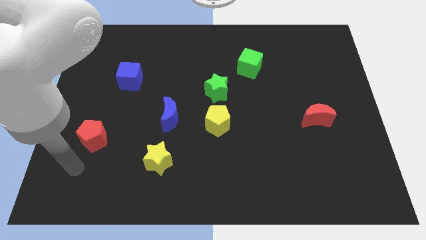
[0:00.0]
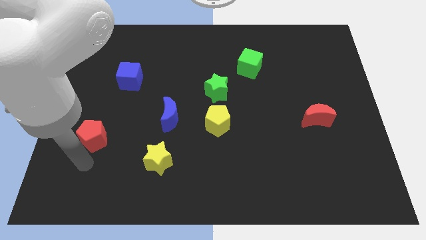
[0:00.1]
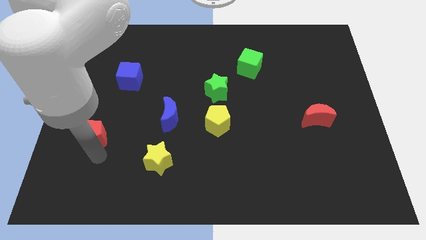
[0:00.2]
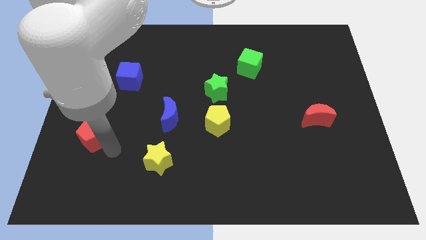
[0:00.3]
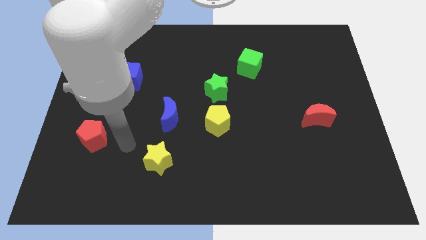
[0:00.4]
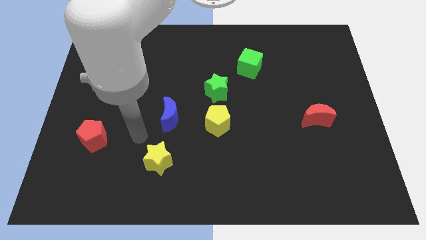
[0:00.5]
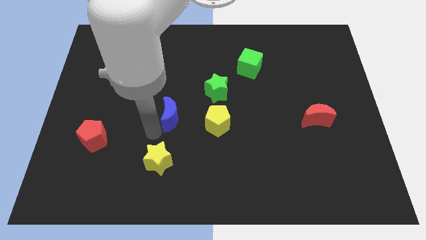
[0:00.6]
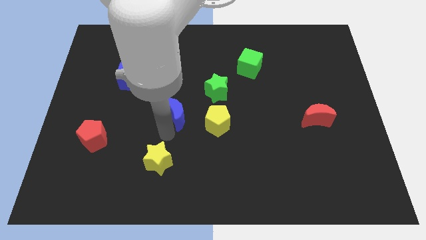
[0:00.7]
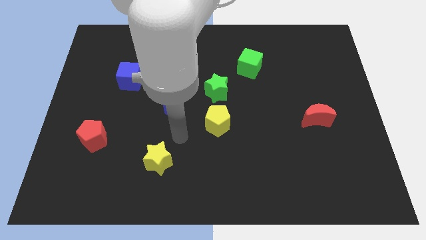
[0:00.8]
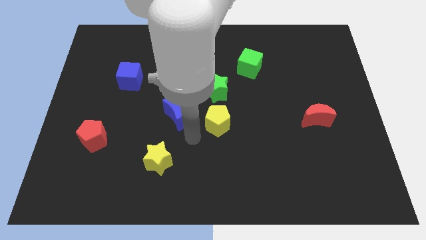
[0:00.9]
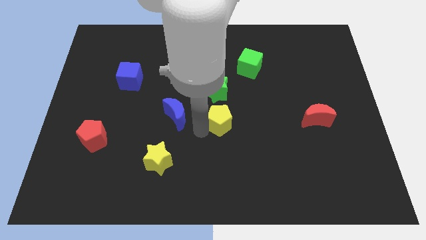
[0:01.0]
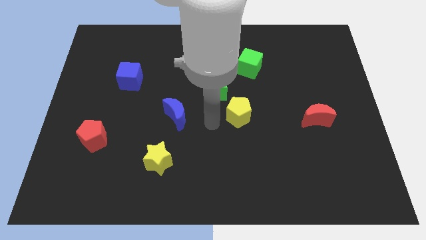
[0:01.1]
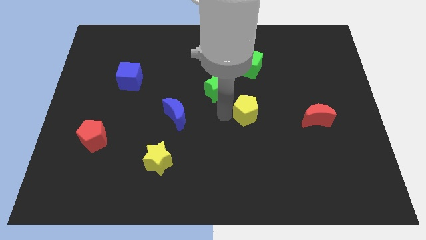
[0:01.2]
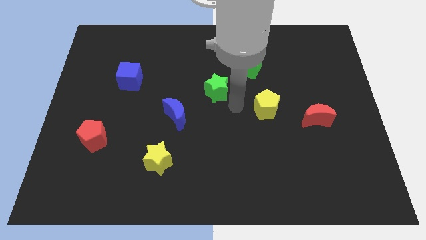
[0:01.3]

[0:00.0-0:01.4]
move the green star away from the yellow pentagon

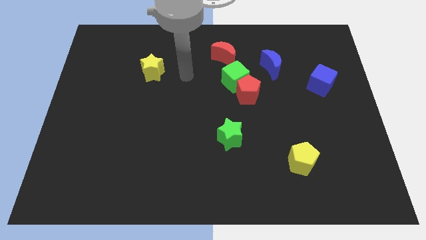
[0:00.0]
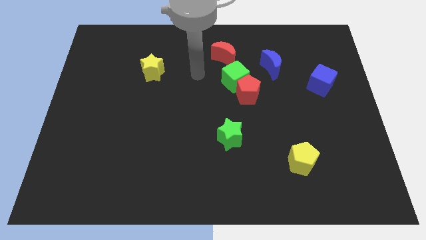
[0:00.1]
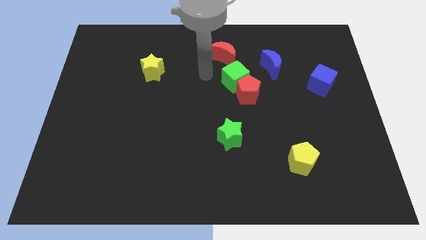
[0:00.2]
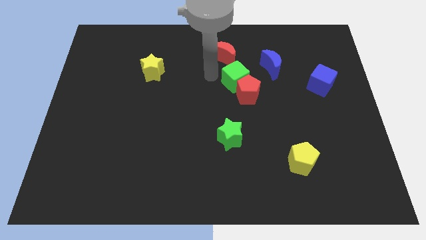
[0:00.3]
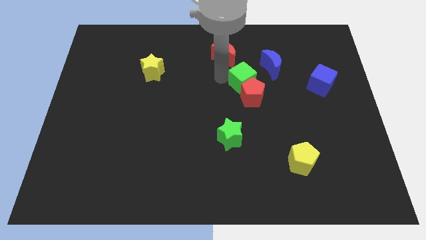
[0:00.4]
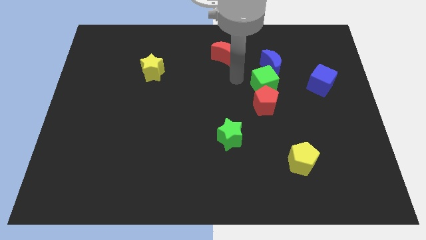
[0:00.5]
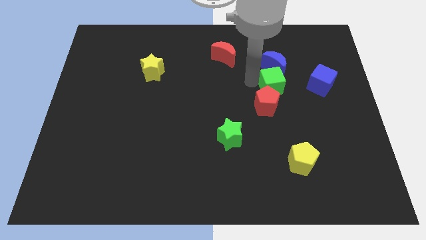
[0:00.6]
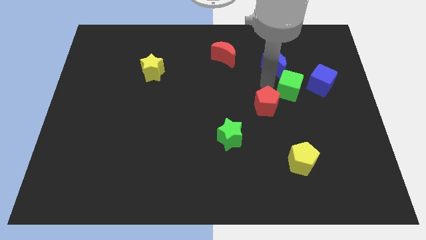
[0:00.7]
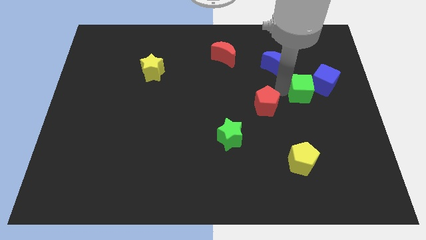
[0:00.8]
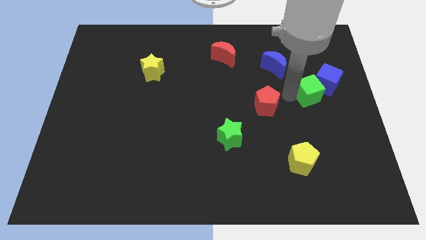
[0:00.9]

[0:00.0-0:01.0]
move the red pentagon away from the green cube

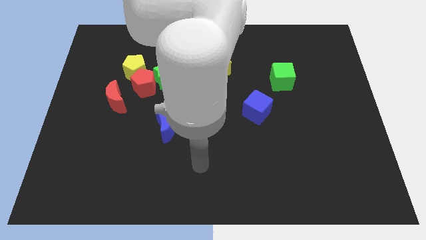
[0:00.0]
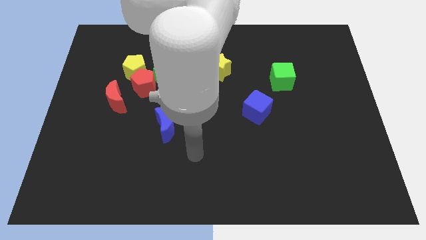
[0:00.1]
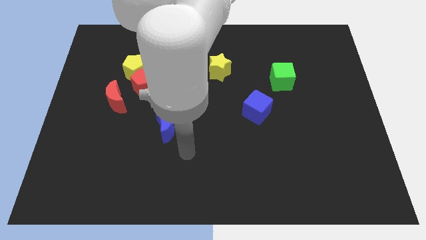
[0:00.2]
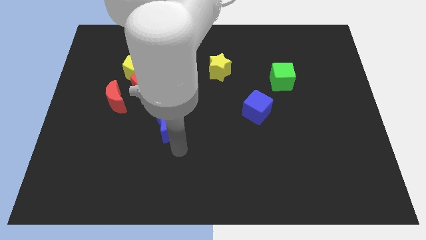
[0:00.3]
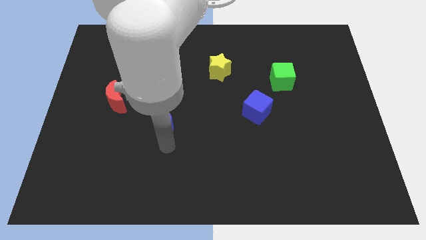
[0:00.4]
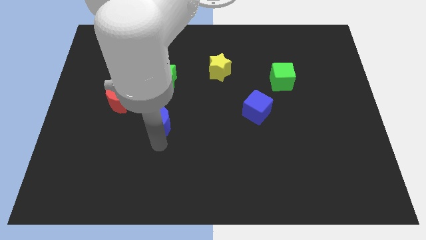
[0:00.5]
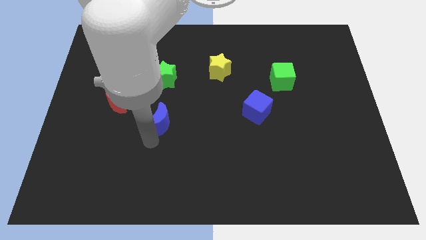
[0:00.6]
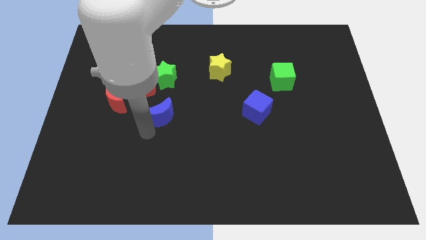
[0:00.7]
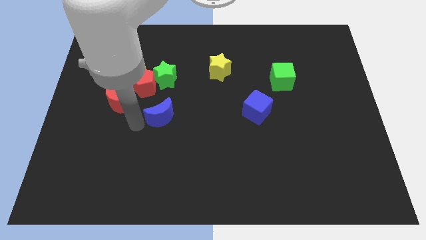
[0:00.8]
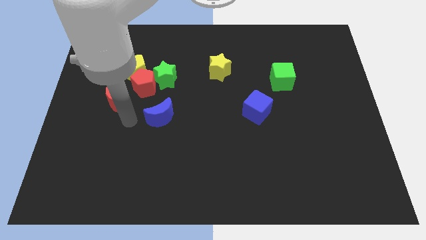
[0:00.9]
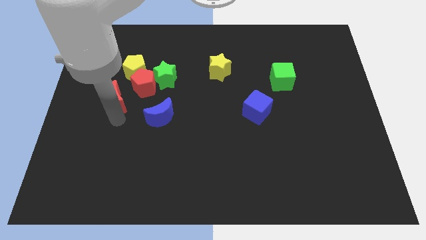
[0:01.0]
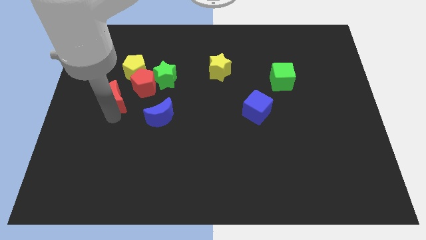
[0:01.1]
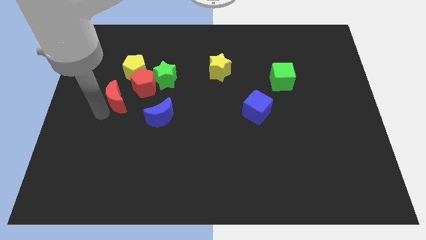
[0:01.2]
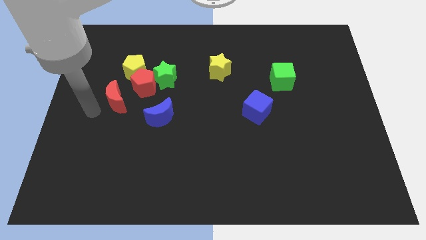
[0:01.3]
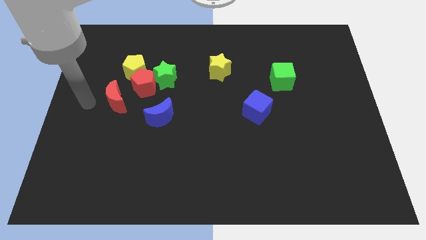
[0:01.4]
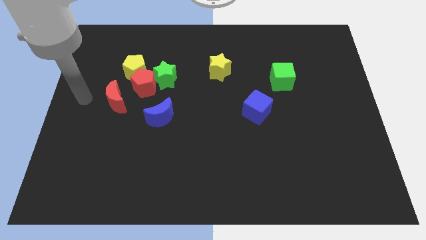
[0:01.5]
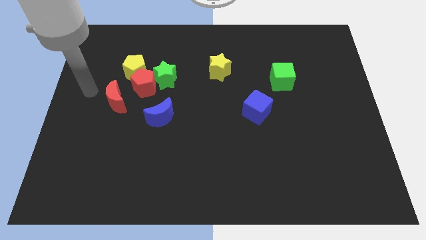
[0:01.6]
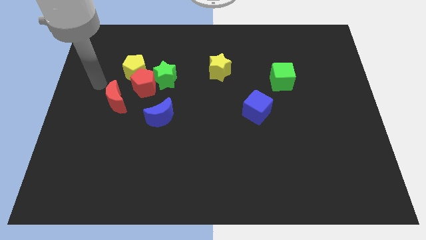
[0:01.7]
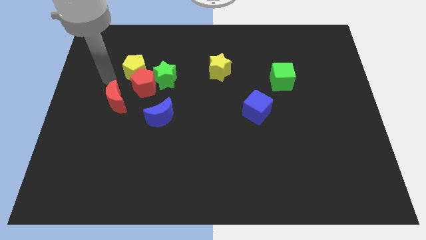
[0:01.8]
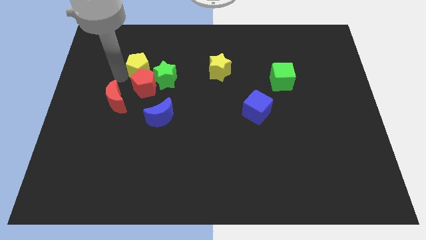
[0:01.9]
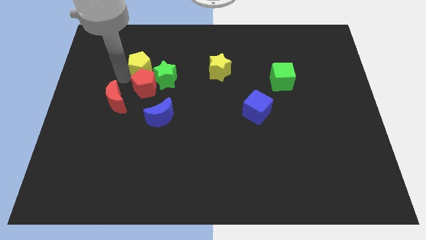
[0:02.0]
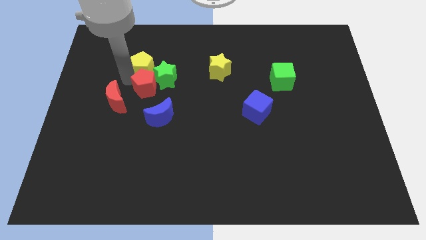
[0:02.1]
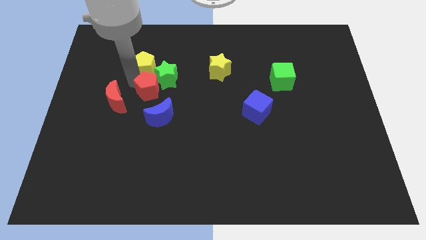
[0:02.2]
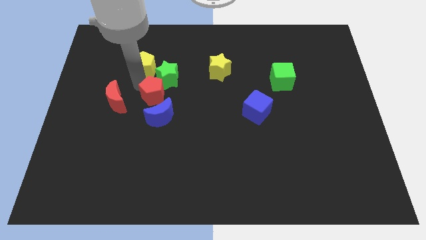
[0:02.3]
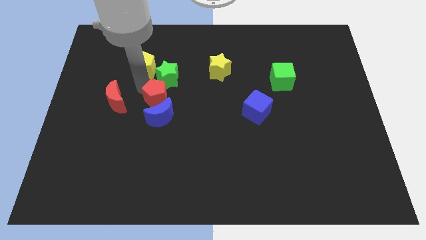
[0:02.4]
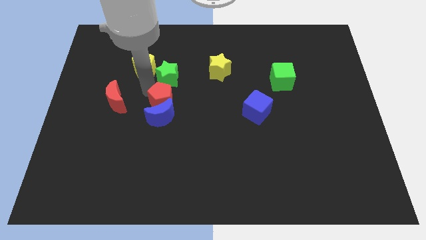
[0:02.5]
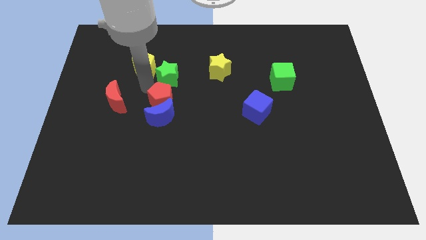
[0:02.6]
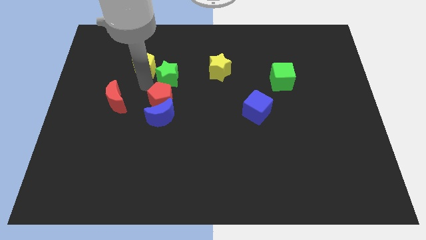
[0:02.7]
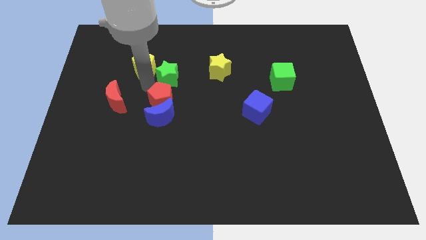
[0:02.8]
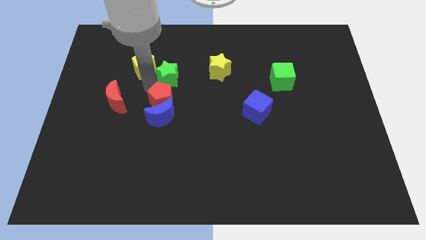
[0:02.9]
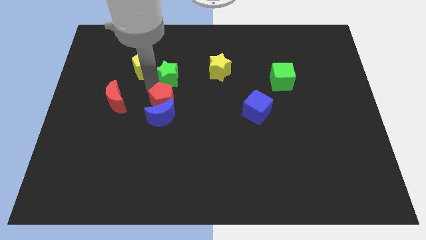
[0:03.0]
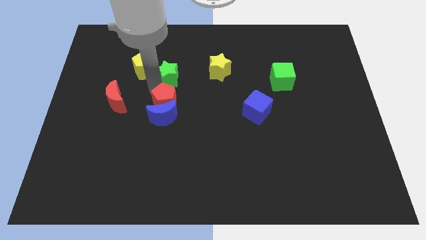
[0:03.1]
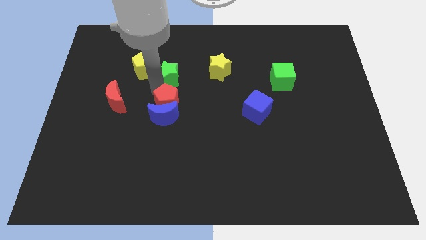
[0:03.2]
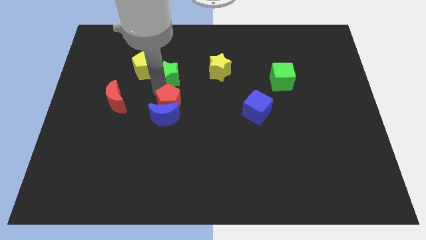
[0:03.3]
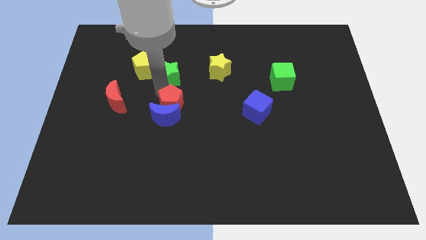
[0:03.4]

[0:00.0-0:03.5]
move the red pentagon away from the green star, yellow pentagon, and red moon

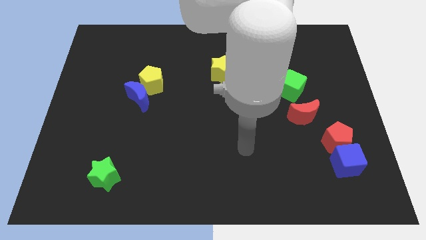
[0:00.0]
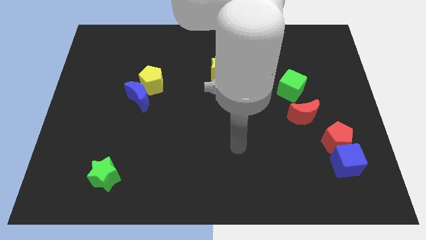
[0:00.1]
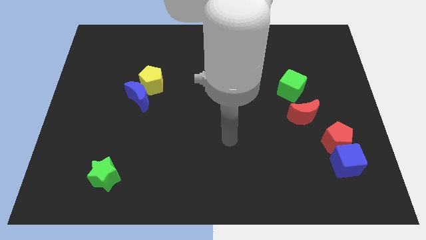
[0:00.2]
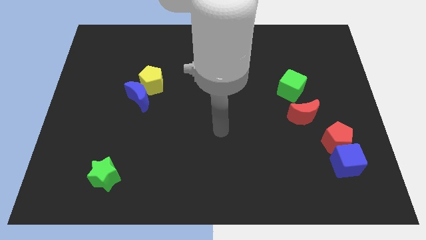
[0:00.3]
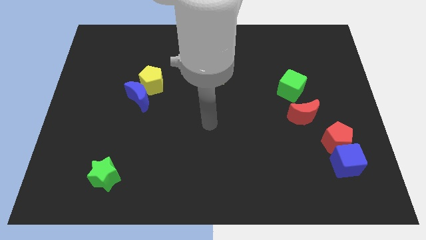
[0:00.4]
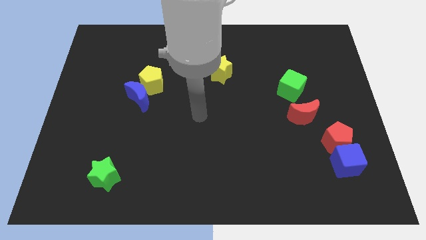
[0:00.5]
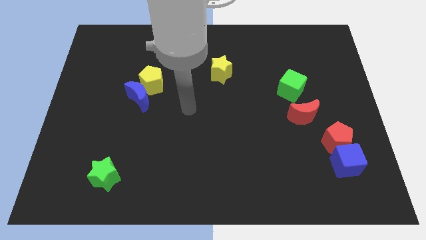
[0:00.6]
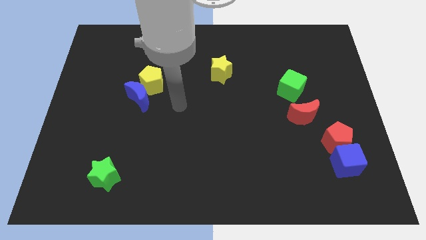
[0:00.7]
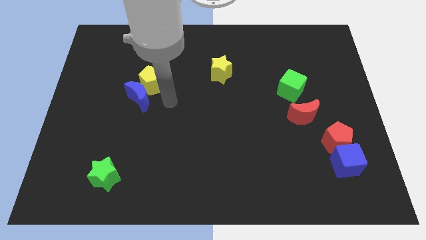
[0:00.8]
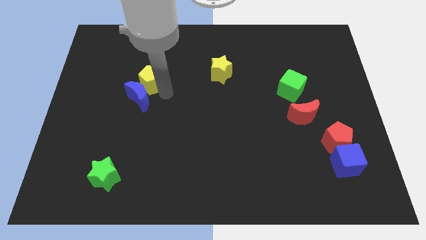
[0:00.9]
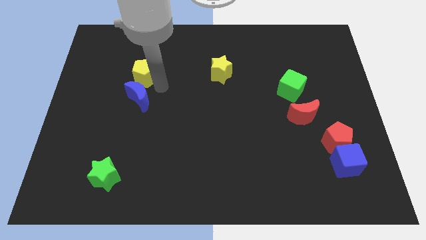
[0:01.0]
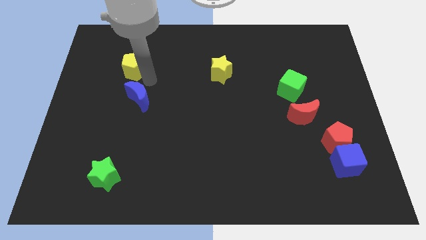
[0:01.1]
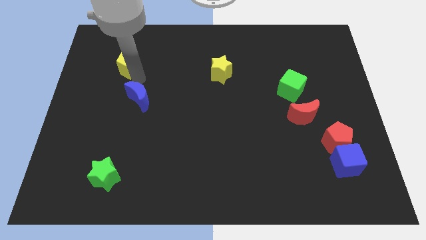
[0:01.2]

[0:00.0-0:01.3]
separate the blue moon from the yellow pentagon

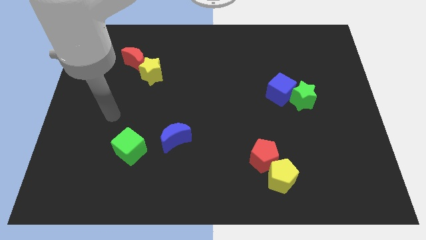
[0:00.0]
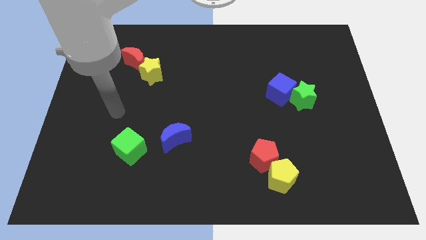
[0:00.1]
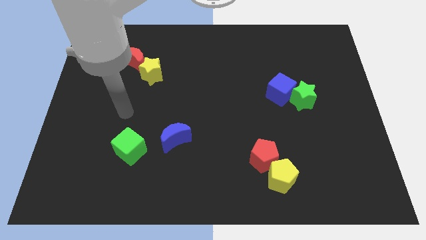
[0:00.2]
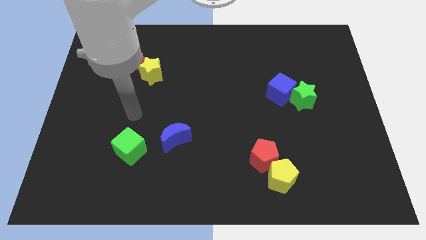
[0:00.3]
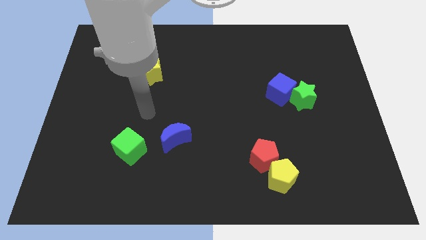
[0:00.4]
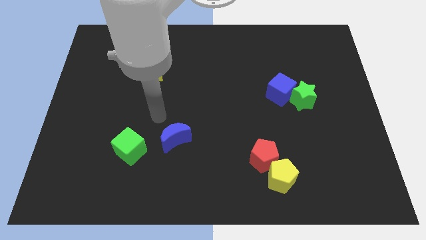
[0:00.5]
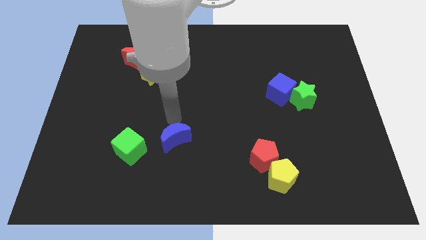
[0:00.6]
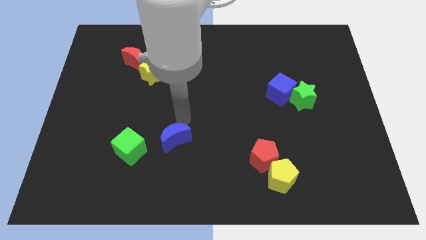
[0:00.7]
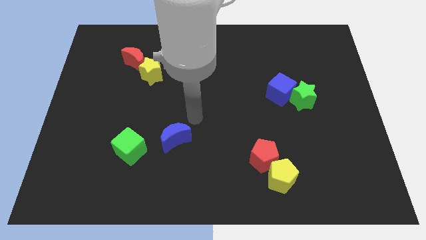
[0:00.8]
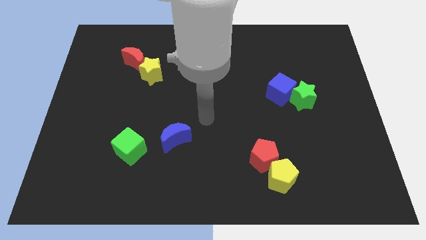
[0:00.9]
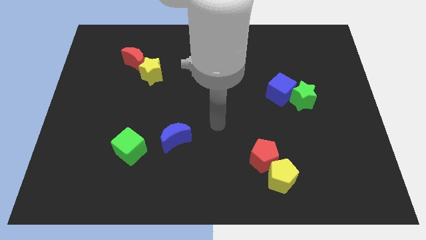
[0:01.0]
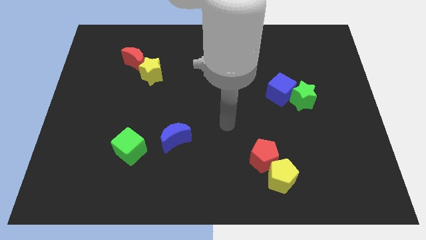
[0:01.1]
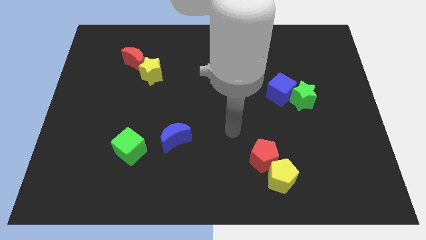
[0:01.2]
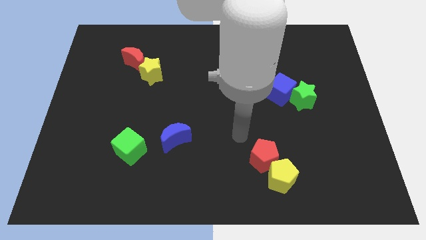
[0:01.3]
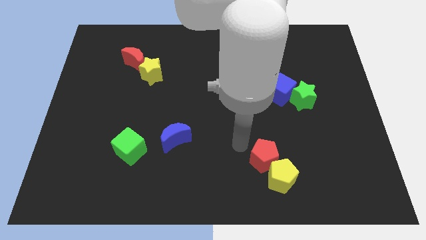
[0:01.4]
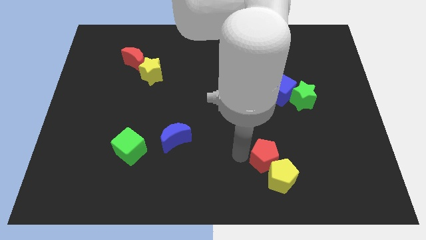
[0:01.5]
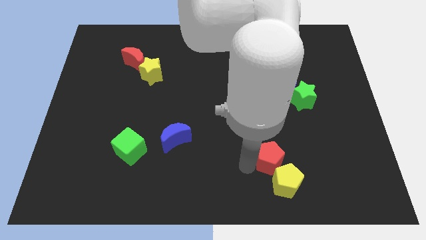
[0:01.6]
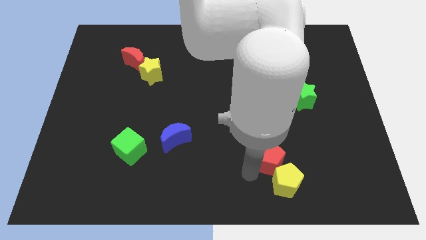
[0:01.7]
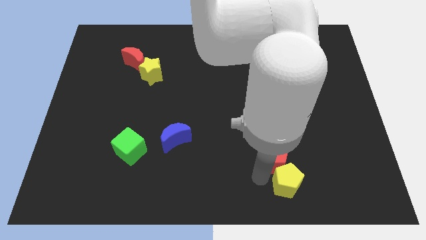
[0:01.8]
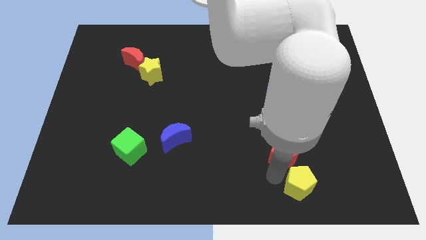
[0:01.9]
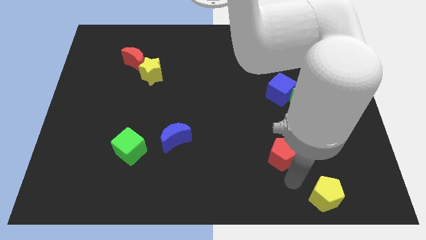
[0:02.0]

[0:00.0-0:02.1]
move the red pentagon away from the yellow pentagon

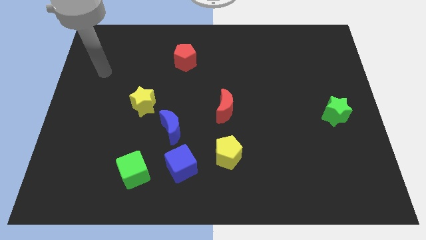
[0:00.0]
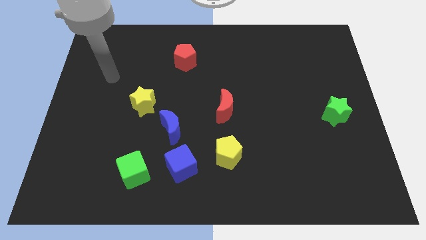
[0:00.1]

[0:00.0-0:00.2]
move the green cube away from the blue cube
